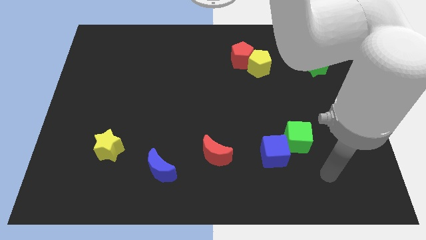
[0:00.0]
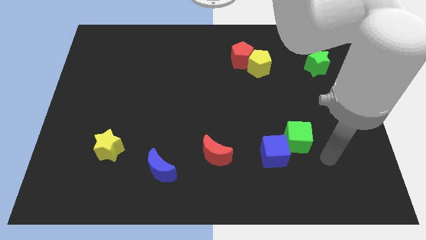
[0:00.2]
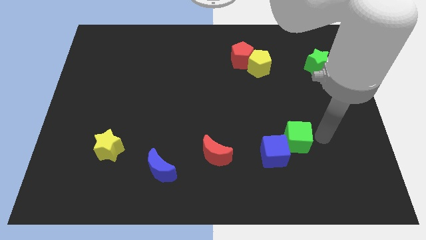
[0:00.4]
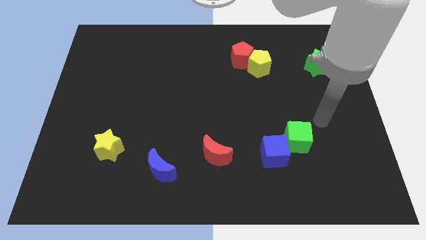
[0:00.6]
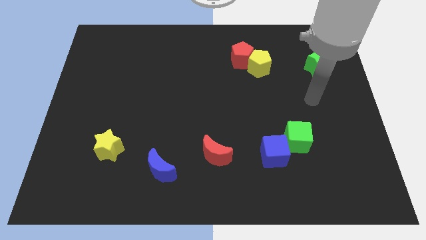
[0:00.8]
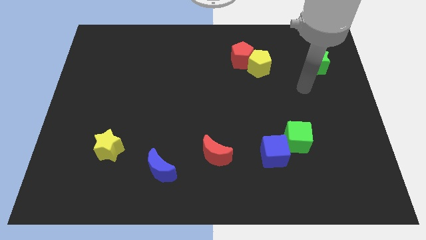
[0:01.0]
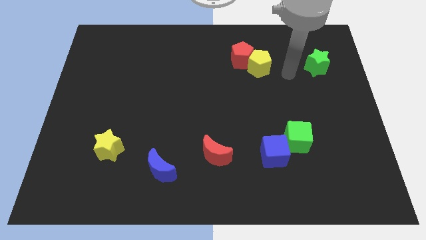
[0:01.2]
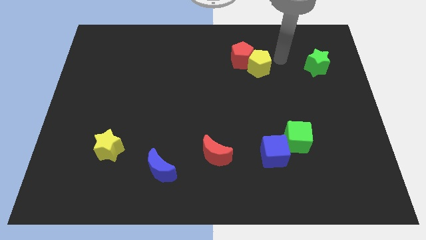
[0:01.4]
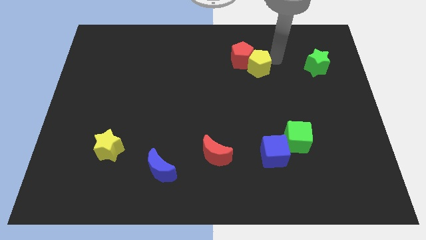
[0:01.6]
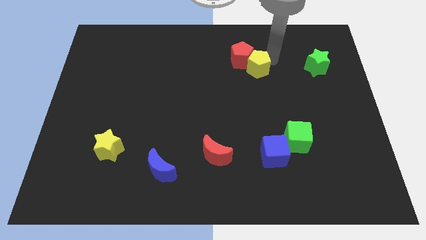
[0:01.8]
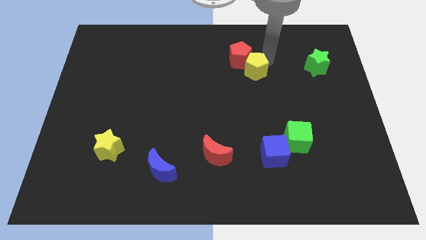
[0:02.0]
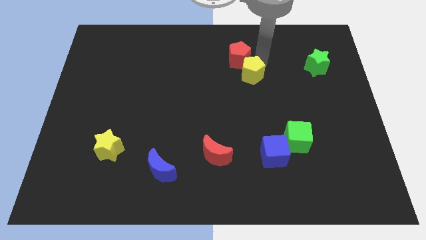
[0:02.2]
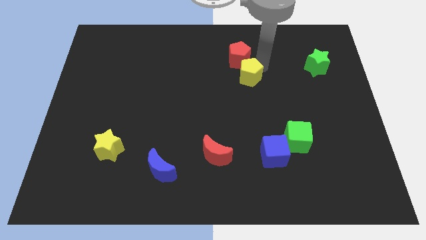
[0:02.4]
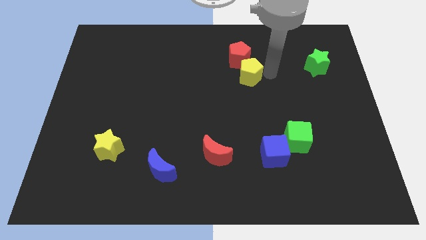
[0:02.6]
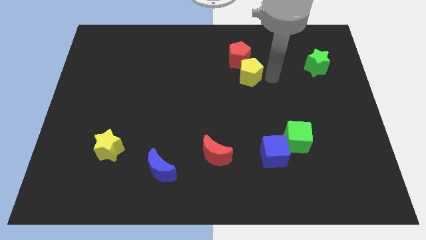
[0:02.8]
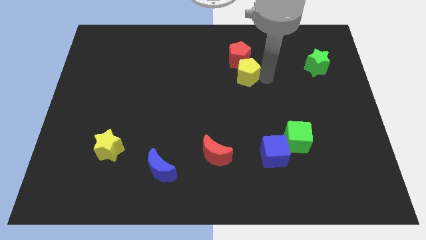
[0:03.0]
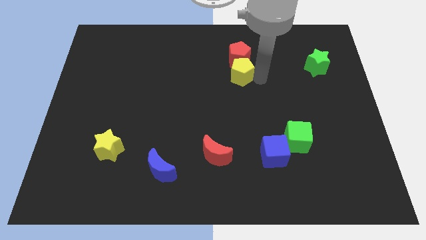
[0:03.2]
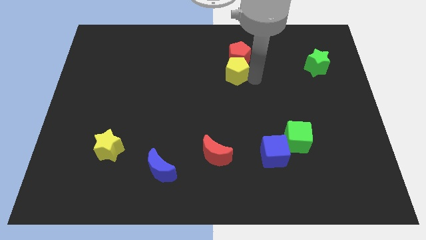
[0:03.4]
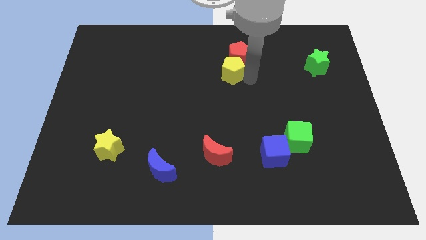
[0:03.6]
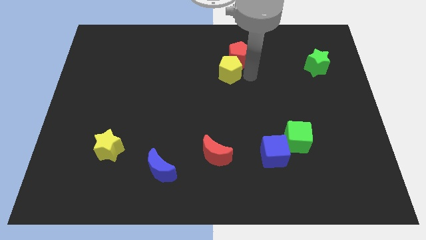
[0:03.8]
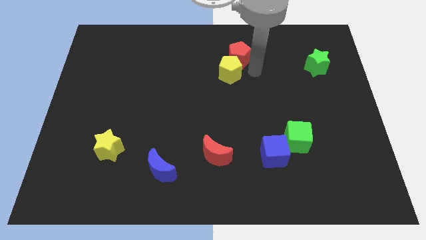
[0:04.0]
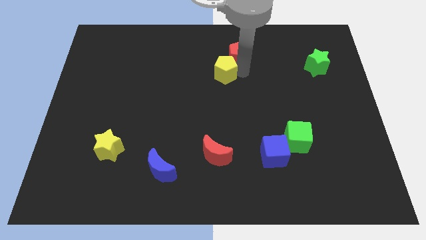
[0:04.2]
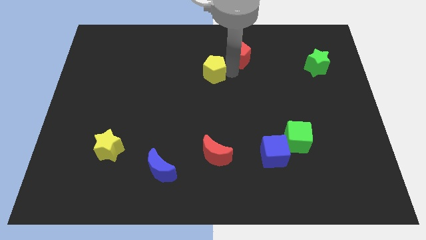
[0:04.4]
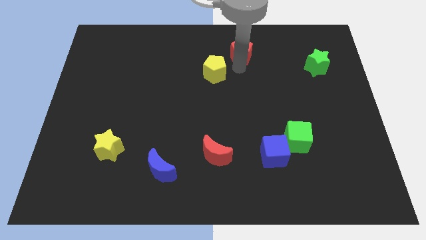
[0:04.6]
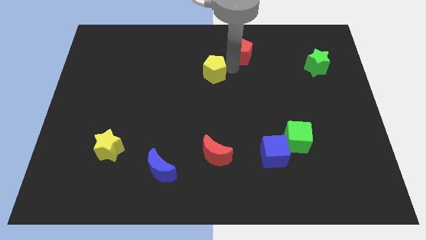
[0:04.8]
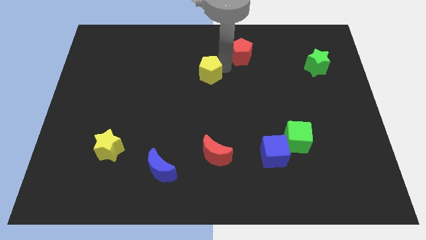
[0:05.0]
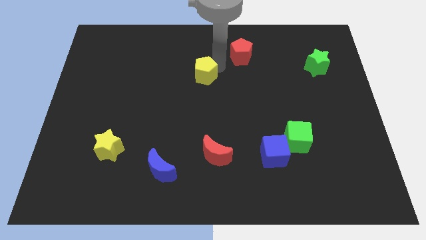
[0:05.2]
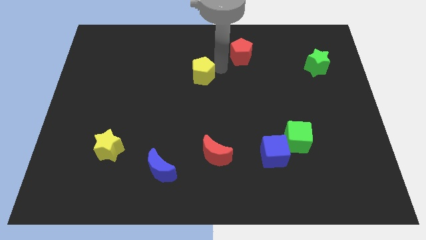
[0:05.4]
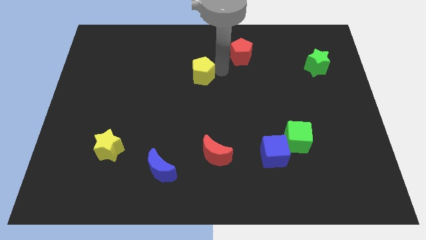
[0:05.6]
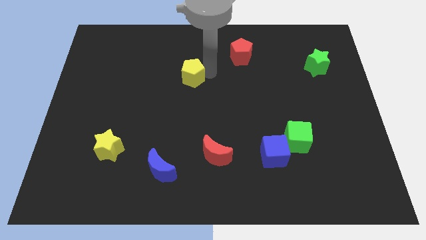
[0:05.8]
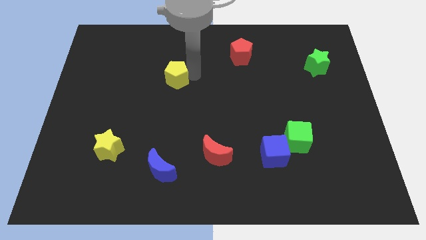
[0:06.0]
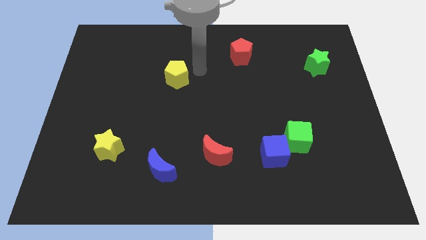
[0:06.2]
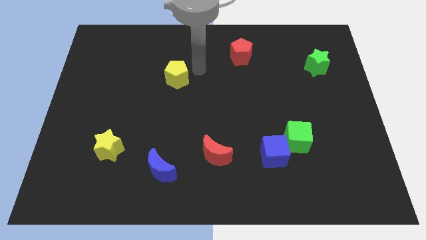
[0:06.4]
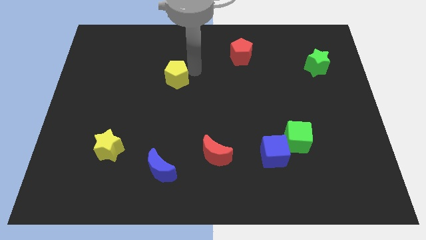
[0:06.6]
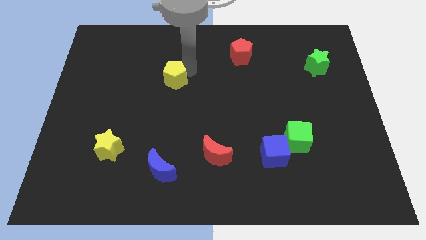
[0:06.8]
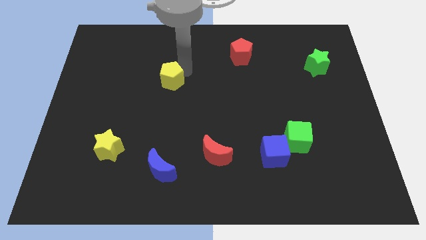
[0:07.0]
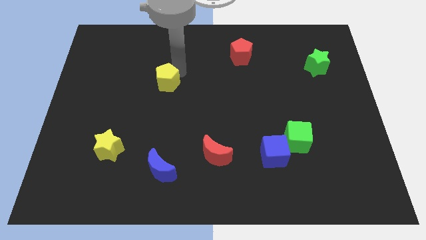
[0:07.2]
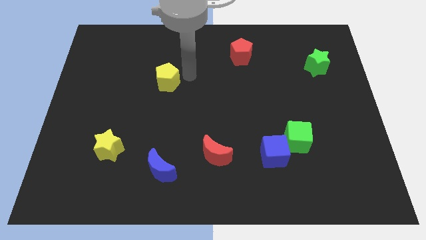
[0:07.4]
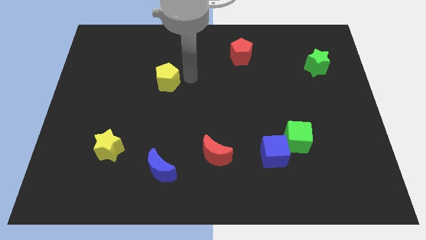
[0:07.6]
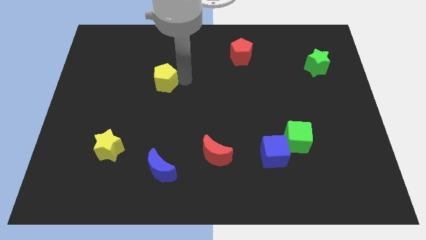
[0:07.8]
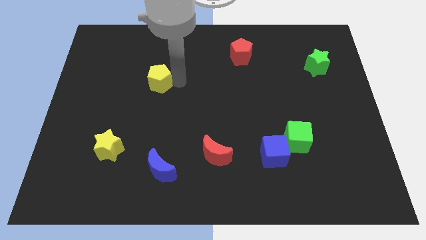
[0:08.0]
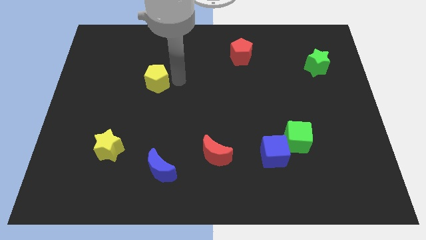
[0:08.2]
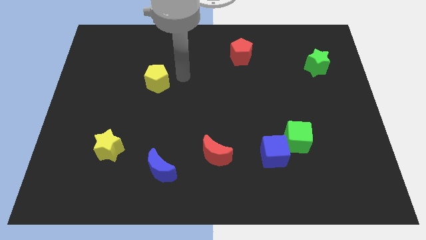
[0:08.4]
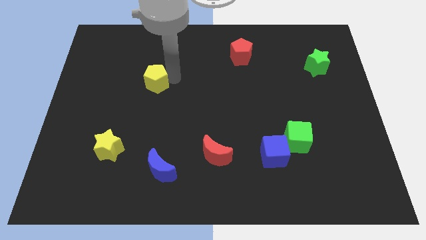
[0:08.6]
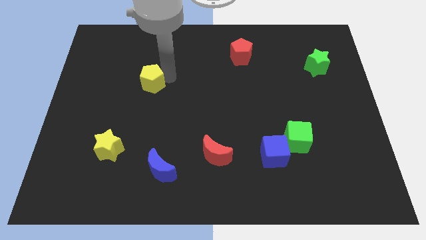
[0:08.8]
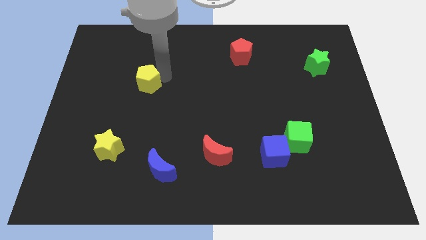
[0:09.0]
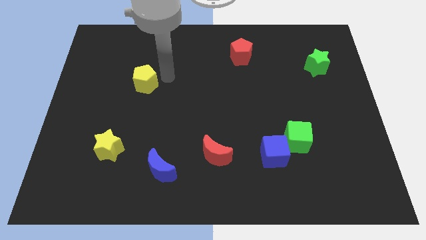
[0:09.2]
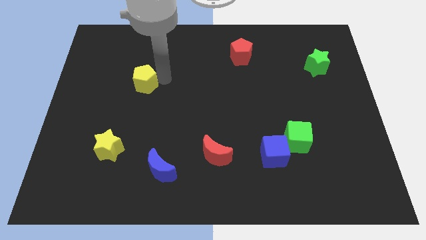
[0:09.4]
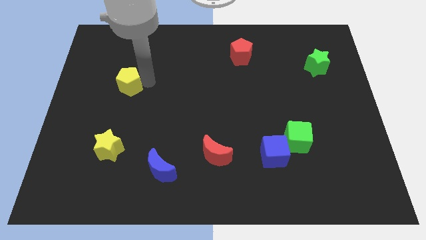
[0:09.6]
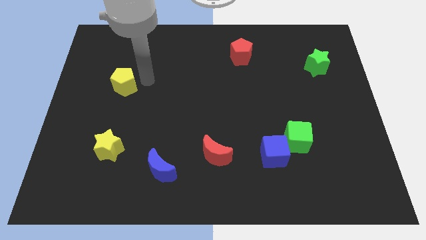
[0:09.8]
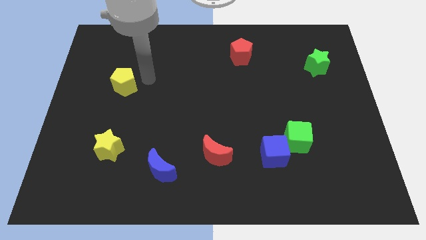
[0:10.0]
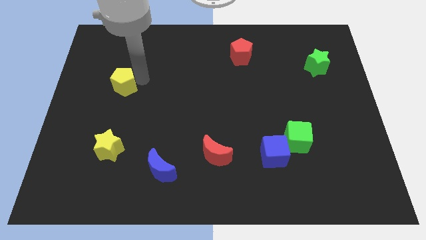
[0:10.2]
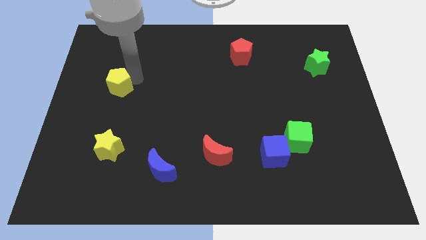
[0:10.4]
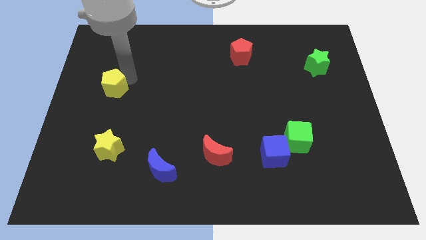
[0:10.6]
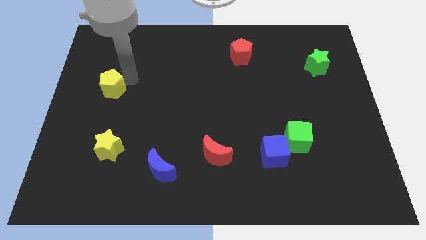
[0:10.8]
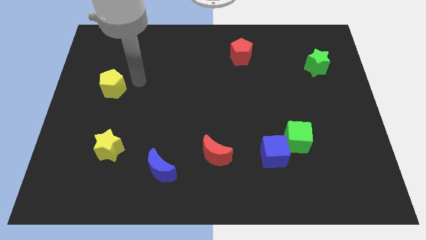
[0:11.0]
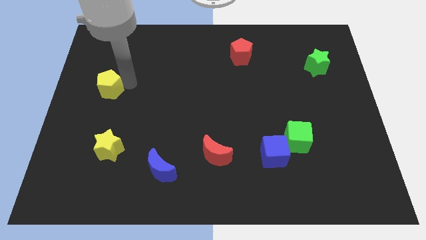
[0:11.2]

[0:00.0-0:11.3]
slide the yellow pentagon to the left side of the board
